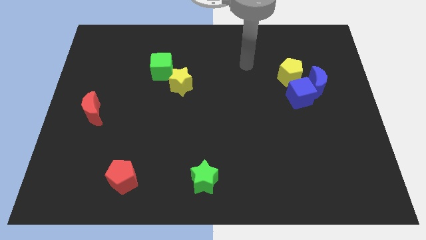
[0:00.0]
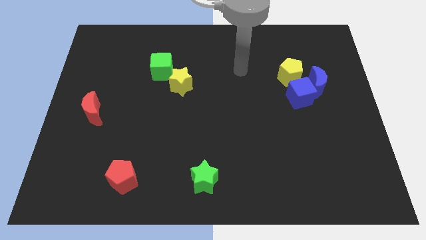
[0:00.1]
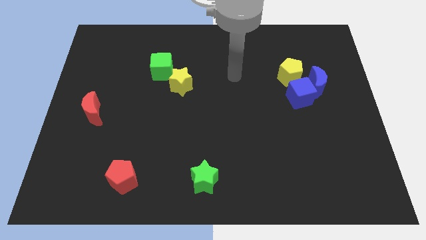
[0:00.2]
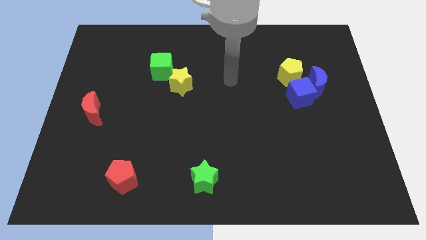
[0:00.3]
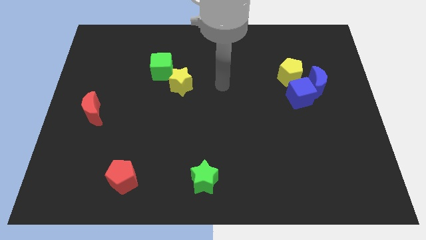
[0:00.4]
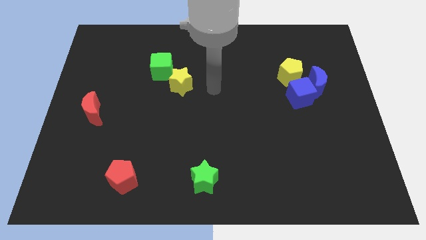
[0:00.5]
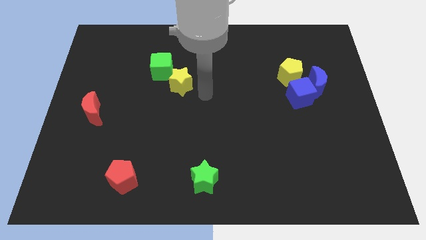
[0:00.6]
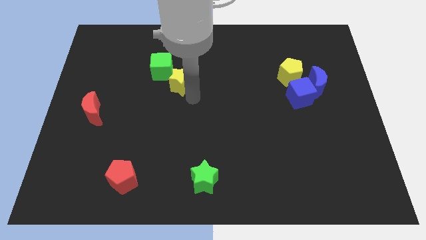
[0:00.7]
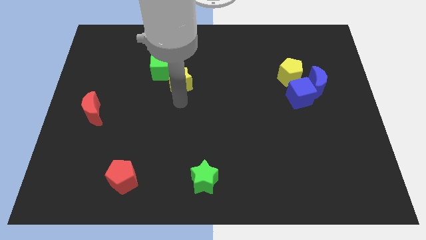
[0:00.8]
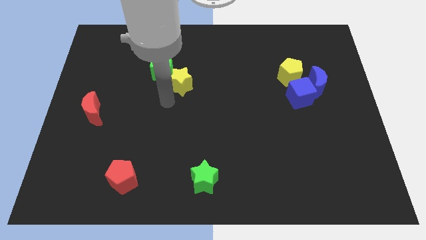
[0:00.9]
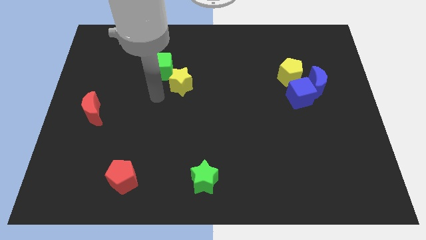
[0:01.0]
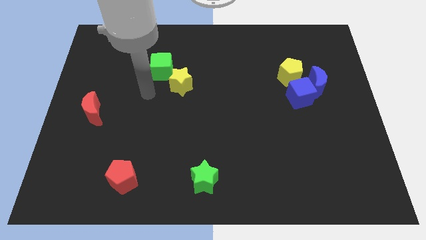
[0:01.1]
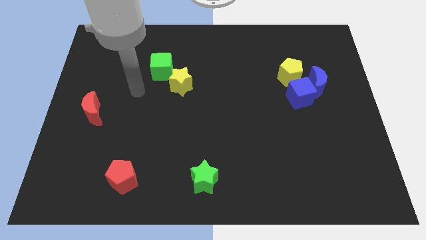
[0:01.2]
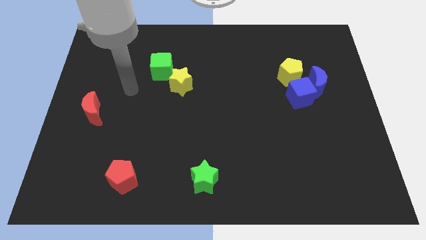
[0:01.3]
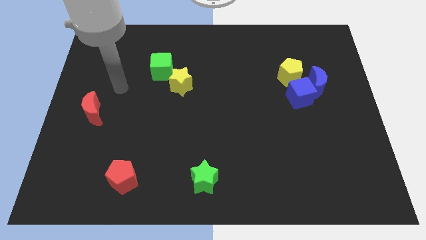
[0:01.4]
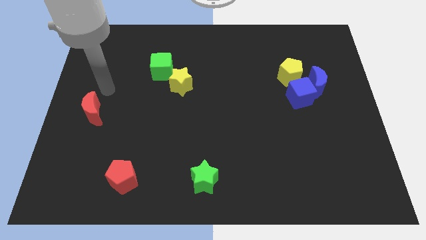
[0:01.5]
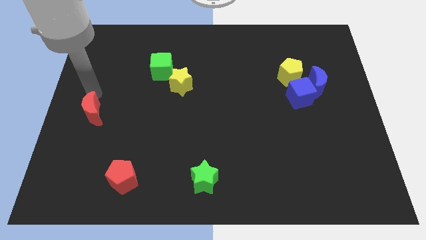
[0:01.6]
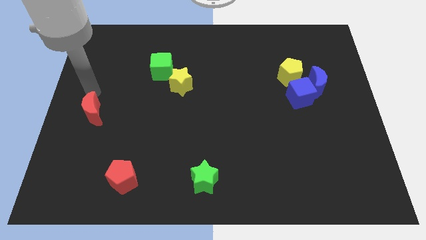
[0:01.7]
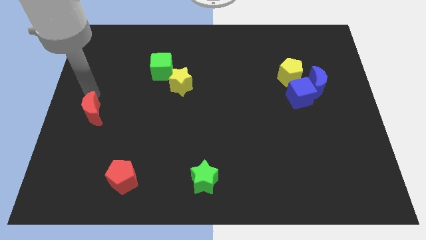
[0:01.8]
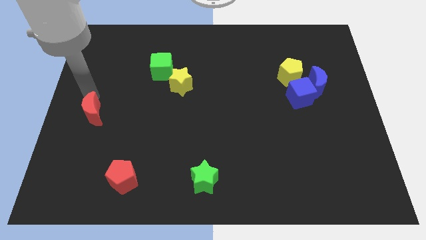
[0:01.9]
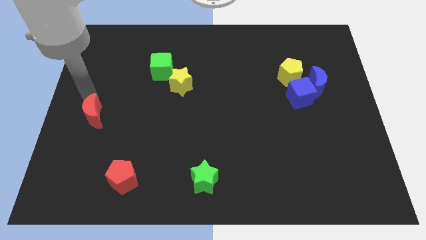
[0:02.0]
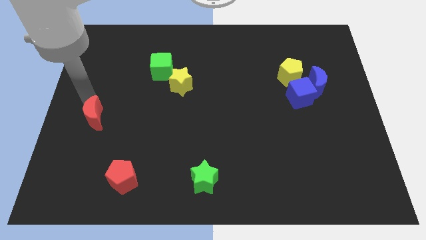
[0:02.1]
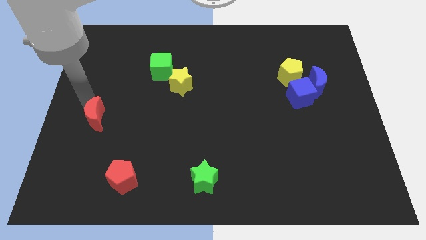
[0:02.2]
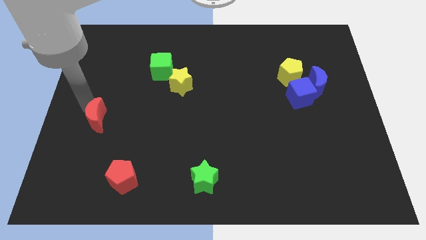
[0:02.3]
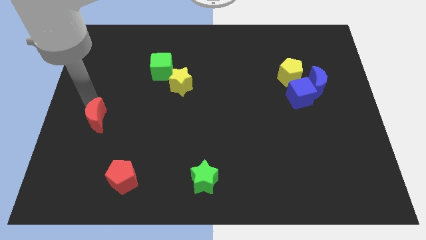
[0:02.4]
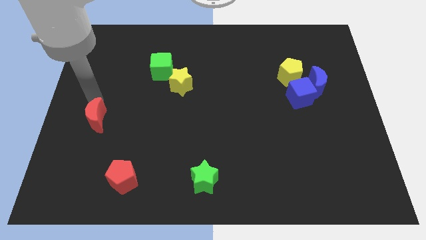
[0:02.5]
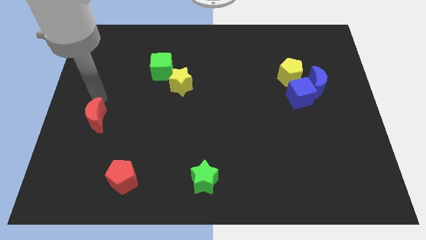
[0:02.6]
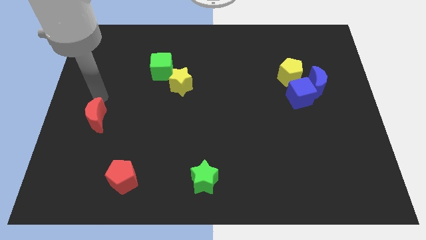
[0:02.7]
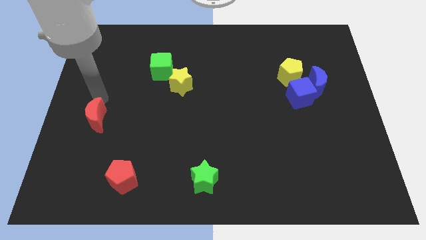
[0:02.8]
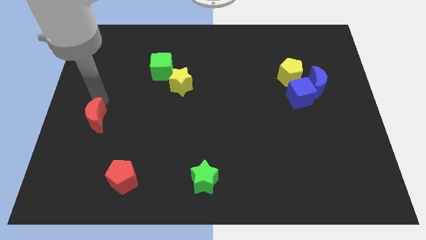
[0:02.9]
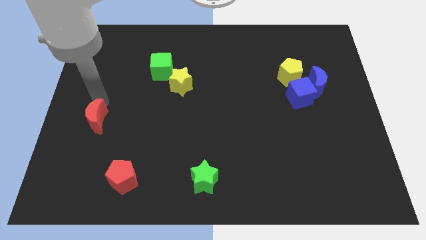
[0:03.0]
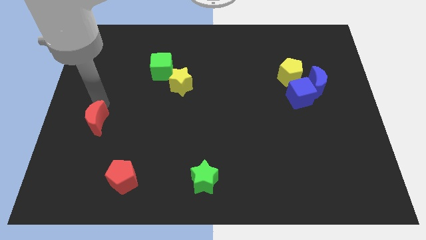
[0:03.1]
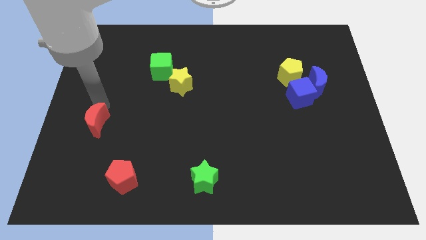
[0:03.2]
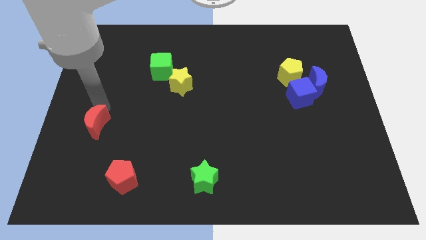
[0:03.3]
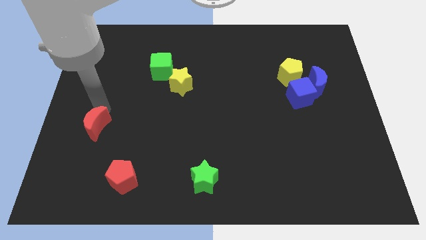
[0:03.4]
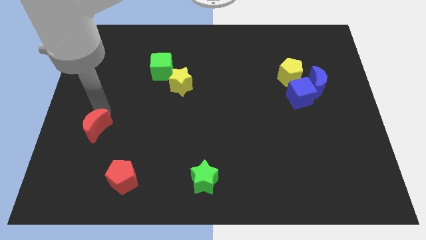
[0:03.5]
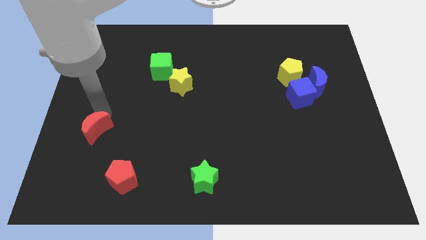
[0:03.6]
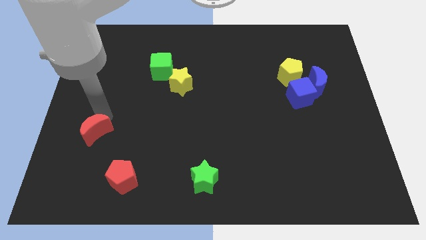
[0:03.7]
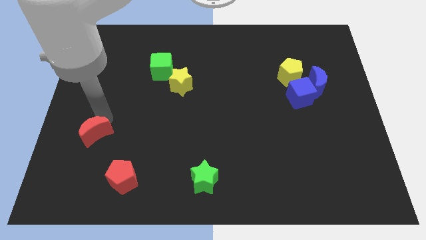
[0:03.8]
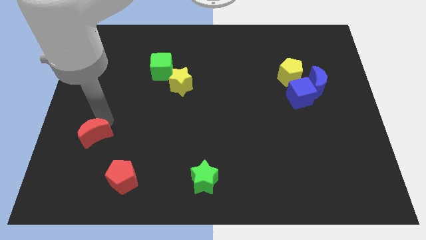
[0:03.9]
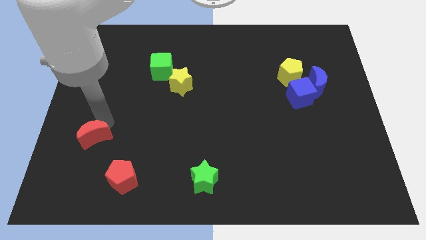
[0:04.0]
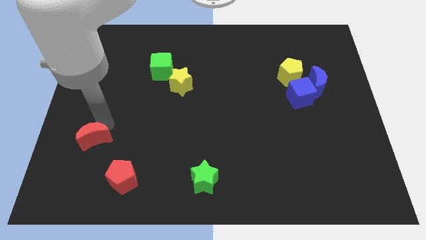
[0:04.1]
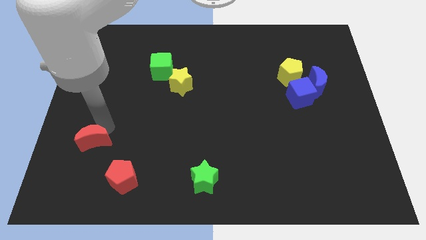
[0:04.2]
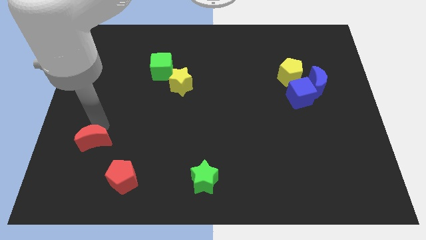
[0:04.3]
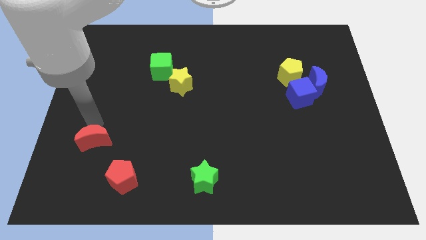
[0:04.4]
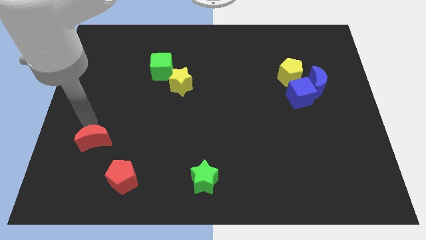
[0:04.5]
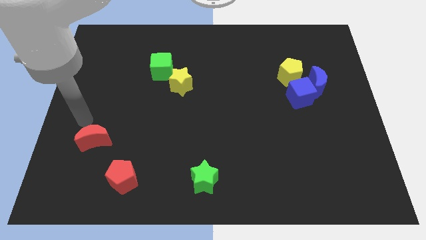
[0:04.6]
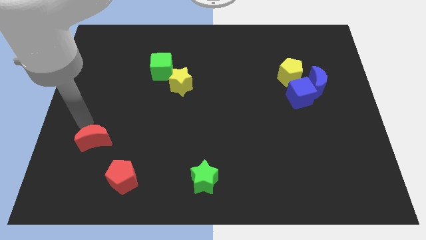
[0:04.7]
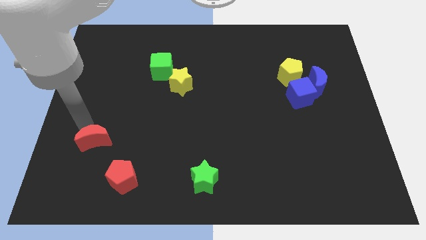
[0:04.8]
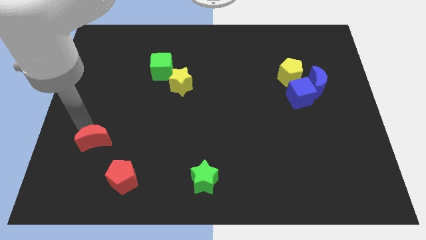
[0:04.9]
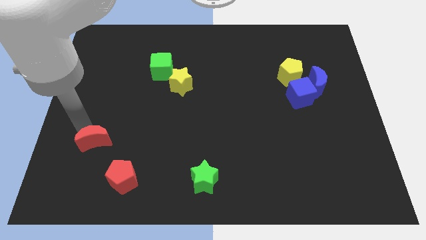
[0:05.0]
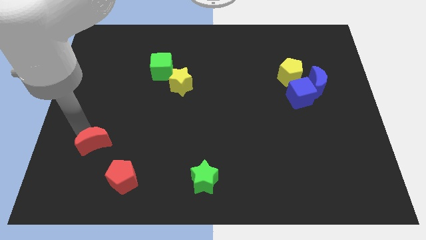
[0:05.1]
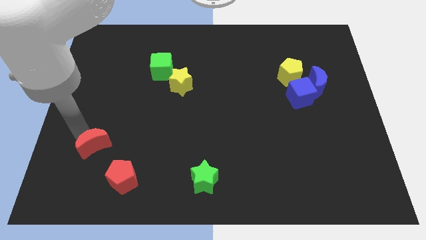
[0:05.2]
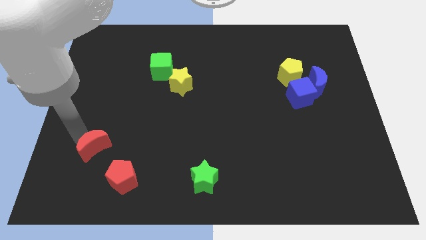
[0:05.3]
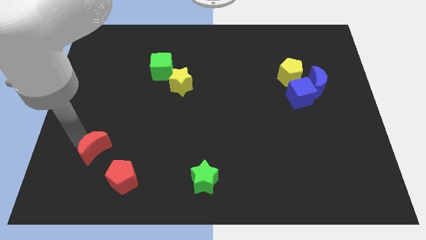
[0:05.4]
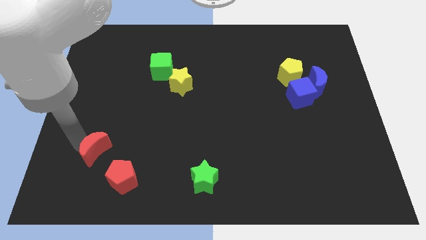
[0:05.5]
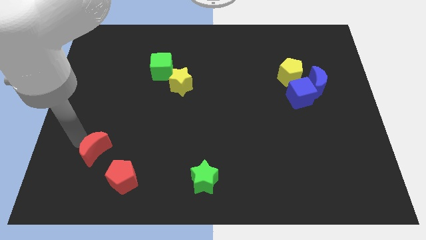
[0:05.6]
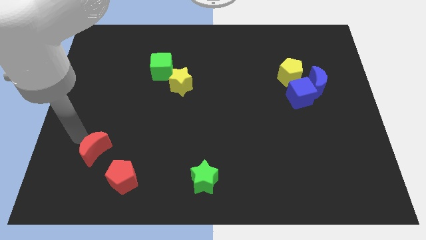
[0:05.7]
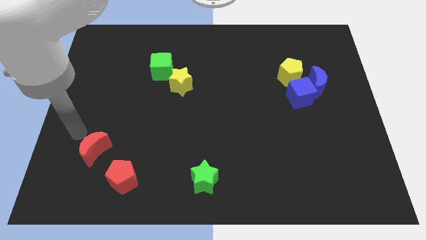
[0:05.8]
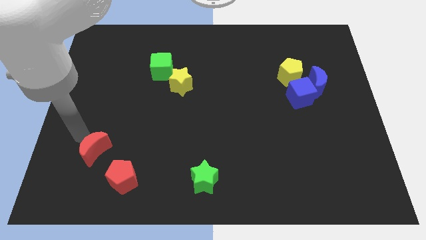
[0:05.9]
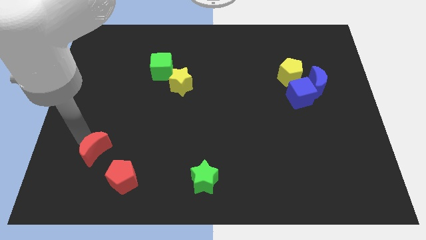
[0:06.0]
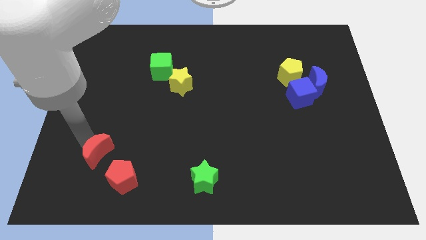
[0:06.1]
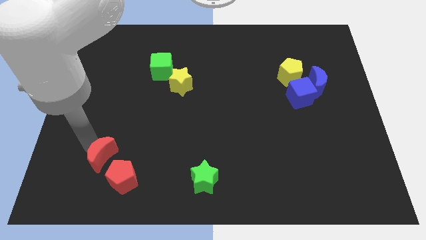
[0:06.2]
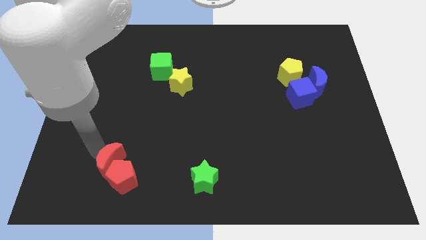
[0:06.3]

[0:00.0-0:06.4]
move the red moon next to the red pentagon

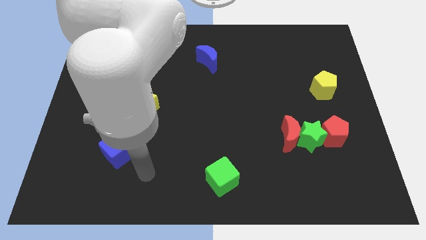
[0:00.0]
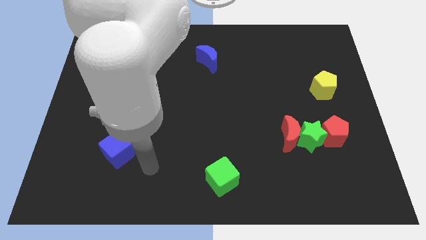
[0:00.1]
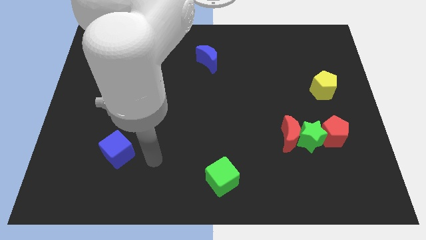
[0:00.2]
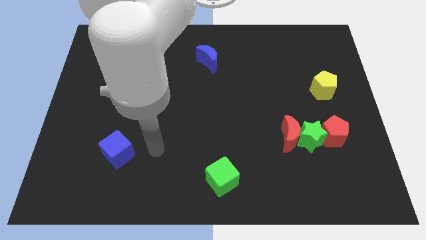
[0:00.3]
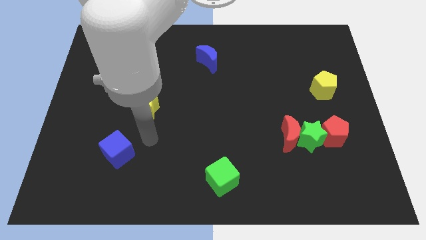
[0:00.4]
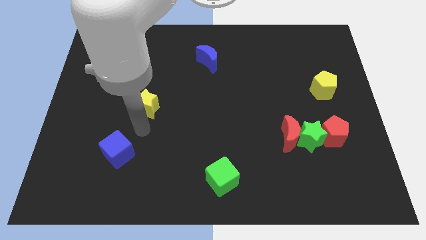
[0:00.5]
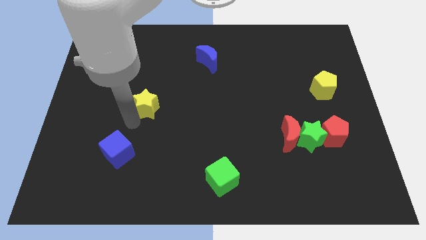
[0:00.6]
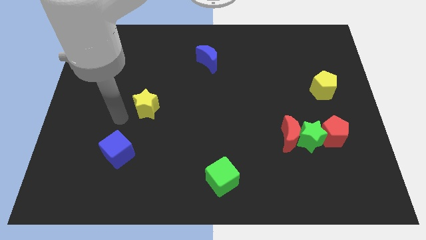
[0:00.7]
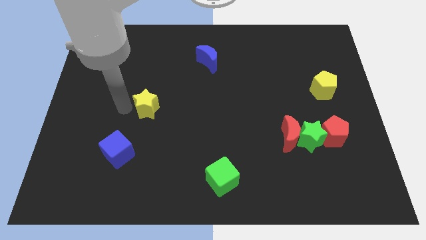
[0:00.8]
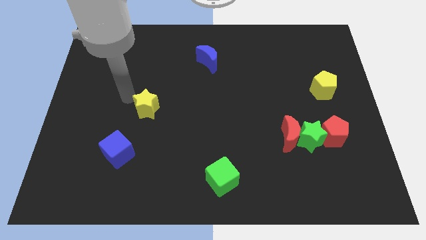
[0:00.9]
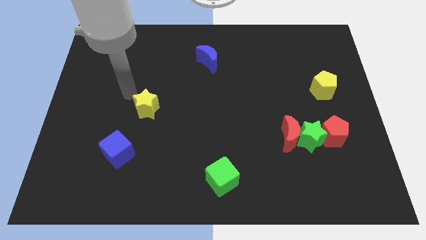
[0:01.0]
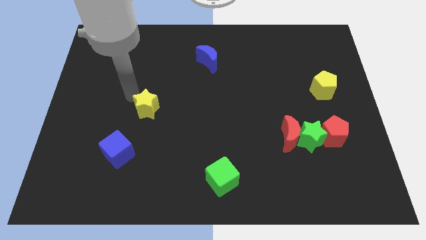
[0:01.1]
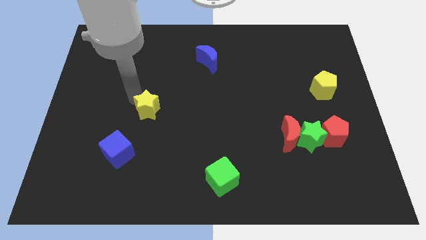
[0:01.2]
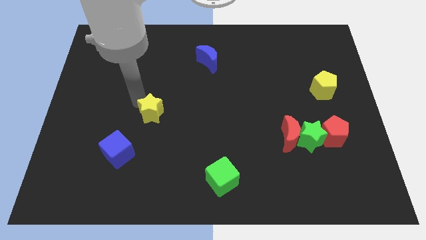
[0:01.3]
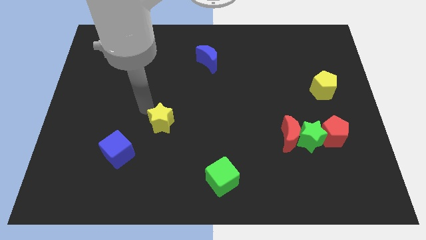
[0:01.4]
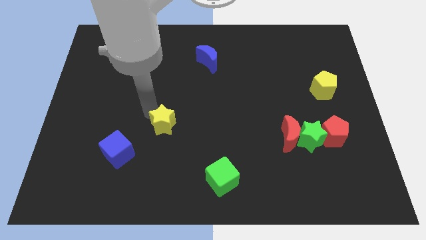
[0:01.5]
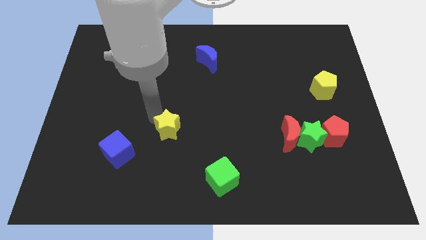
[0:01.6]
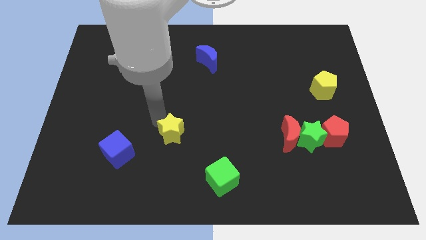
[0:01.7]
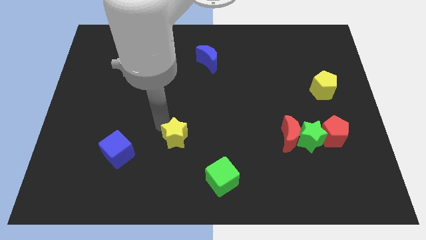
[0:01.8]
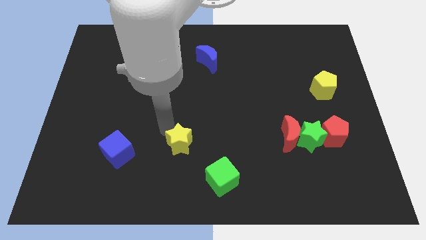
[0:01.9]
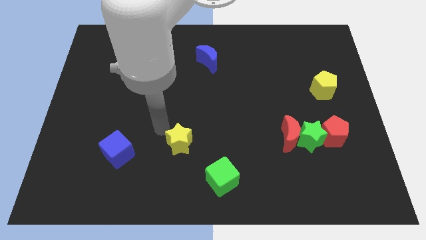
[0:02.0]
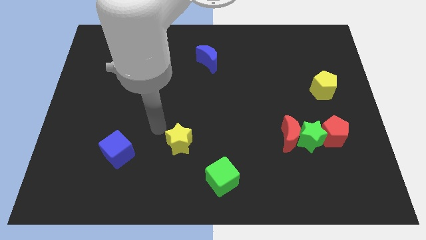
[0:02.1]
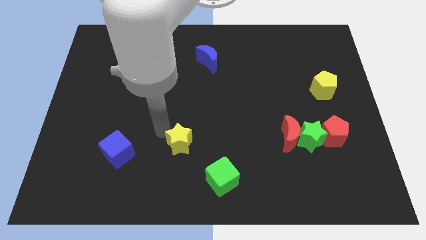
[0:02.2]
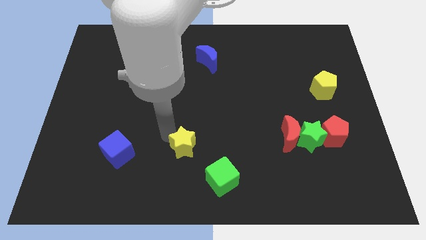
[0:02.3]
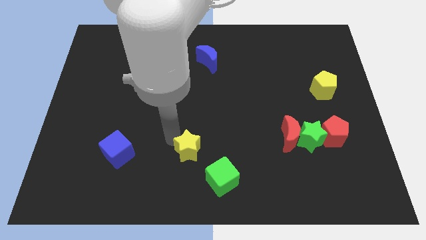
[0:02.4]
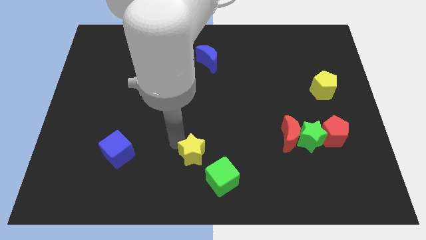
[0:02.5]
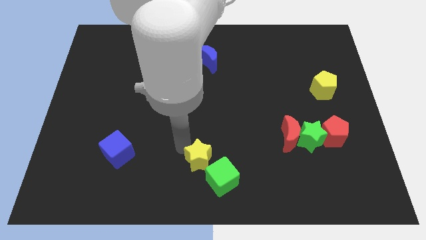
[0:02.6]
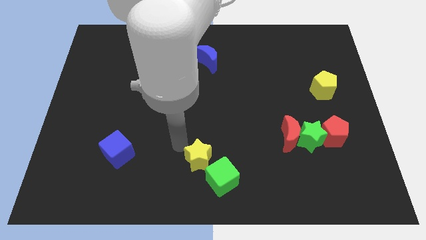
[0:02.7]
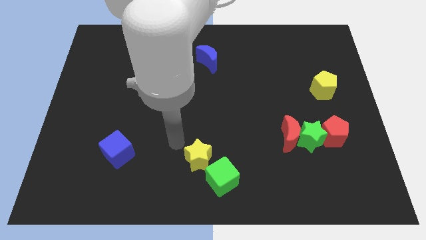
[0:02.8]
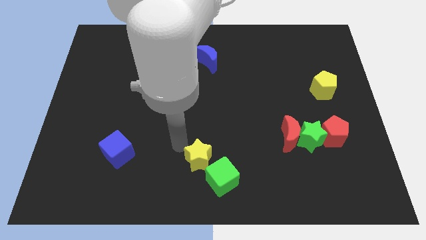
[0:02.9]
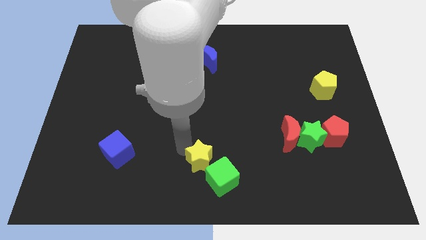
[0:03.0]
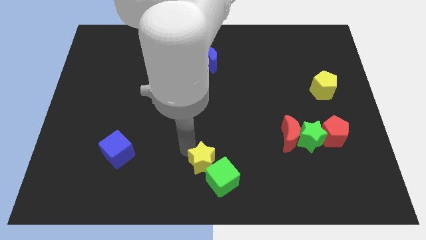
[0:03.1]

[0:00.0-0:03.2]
push the yellow star close to the green cube
